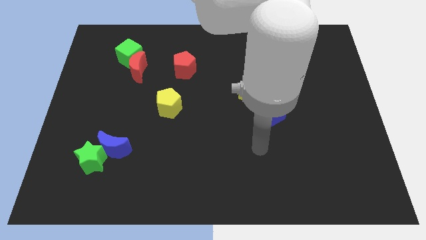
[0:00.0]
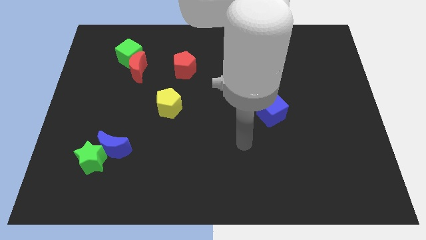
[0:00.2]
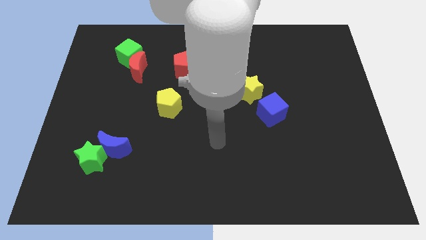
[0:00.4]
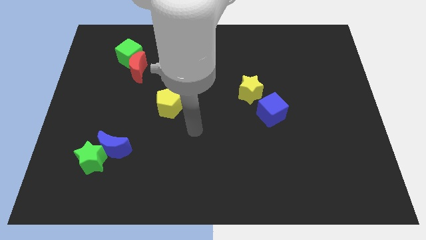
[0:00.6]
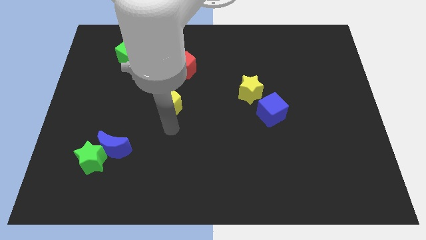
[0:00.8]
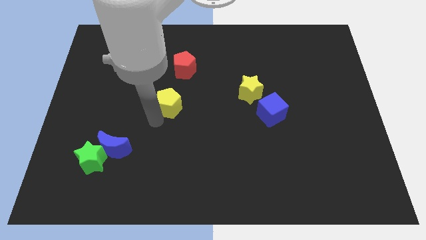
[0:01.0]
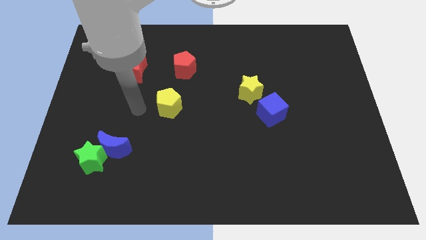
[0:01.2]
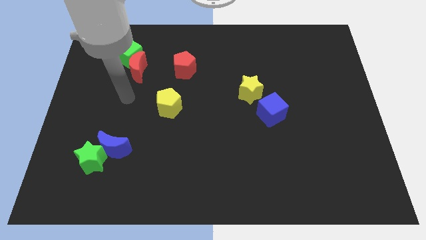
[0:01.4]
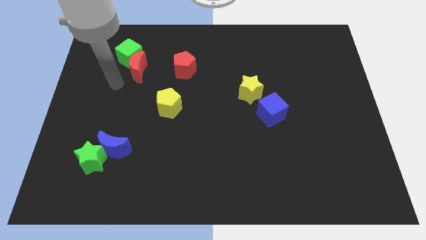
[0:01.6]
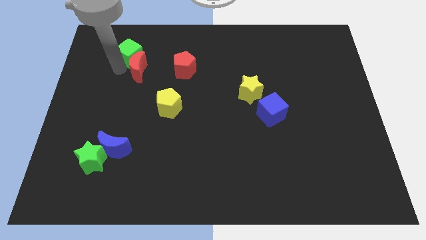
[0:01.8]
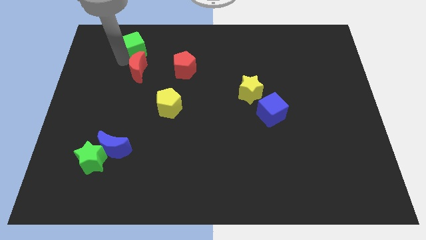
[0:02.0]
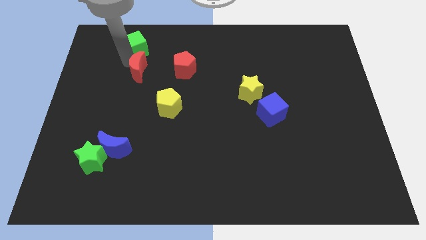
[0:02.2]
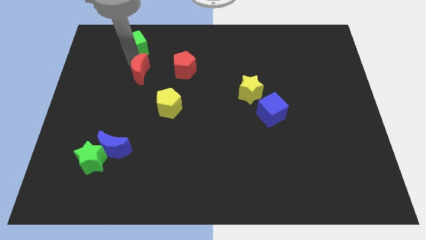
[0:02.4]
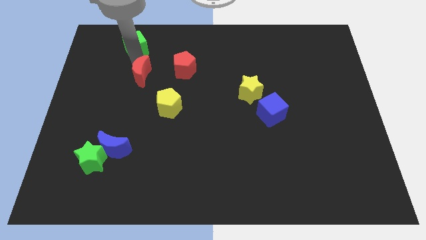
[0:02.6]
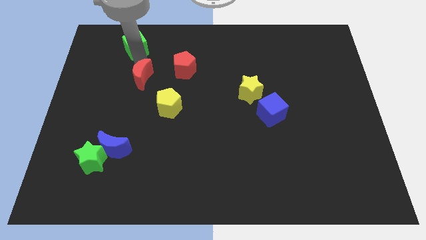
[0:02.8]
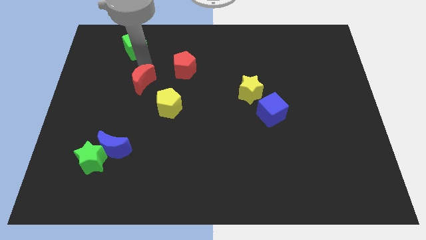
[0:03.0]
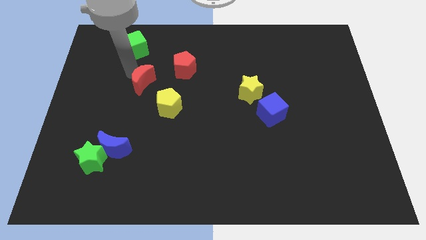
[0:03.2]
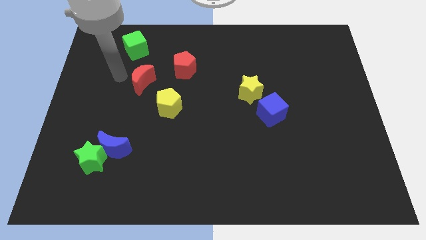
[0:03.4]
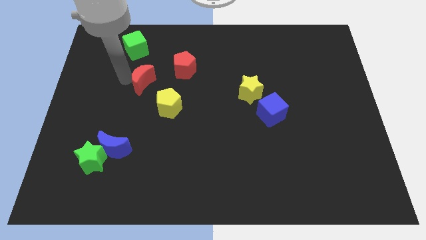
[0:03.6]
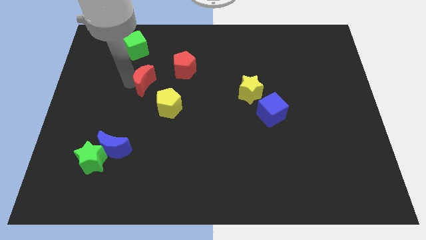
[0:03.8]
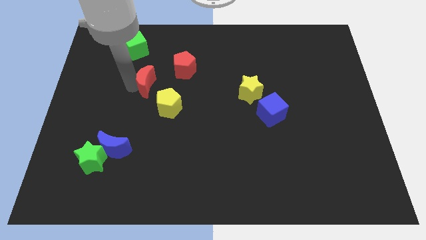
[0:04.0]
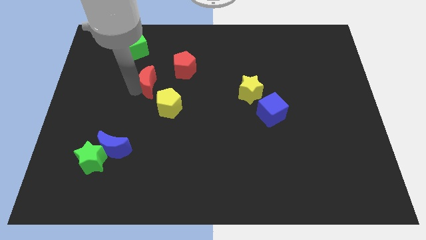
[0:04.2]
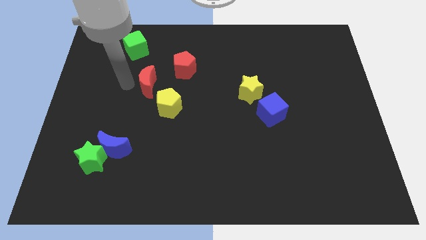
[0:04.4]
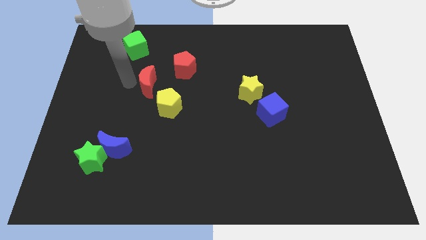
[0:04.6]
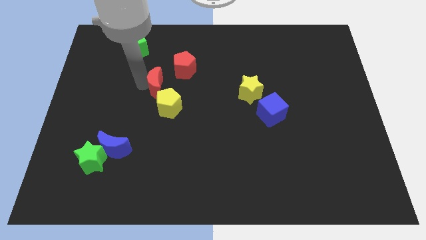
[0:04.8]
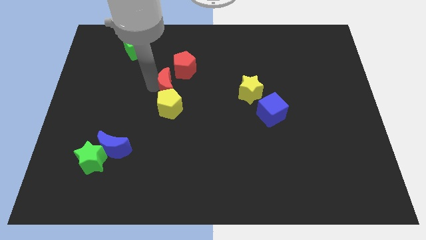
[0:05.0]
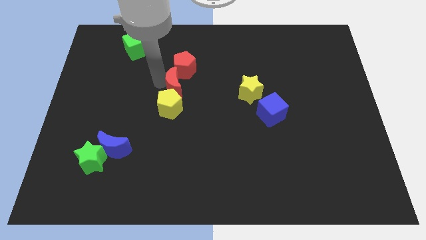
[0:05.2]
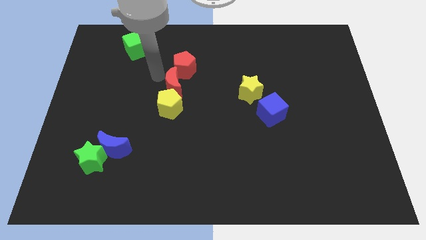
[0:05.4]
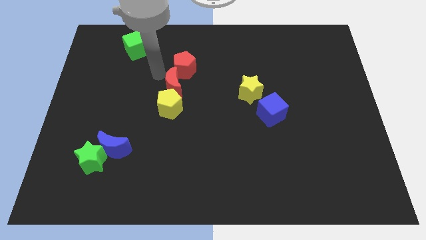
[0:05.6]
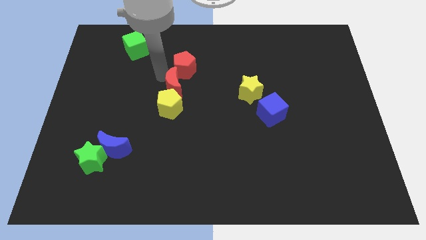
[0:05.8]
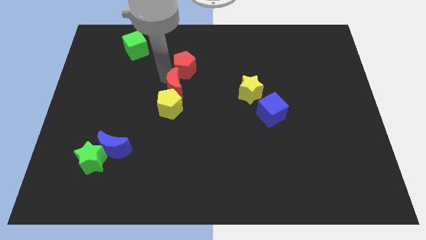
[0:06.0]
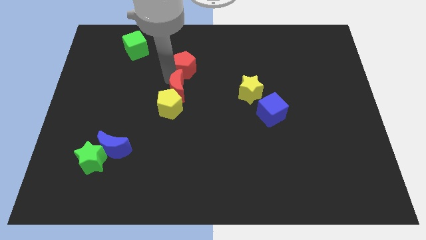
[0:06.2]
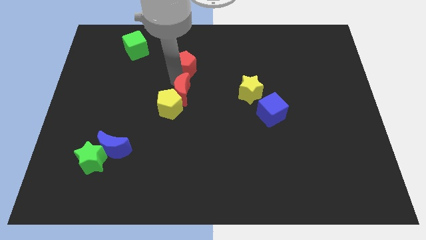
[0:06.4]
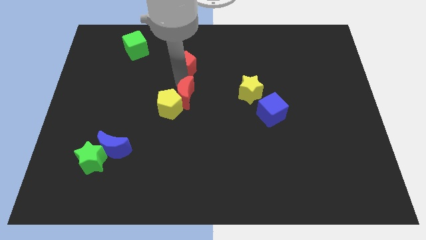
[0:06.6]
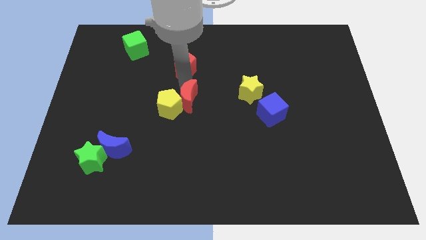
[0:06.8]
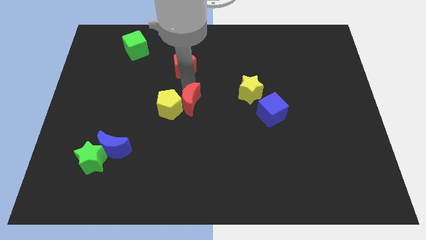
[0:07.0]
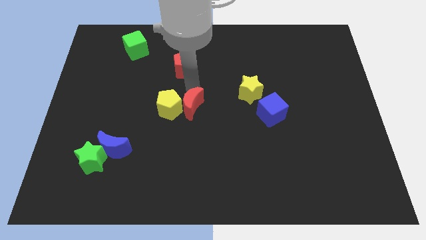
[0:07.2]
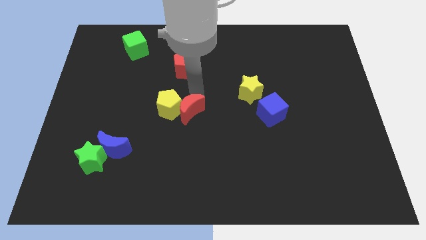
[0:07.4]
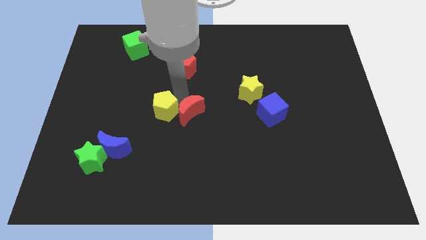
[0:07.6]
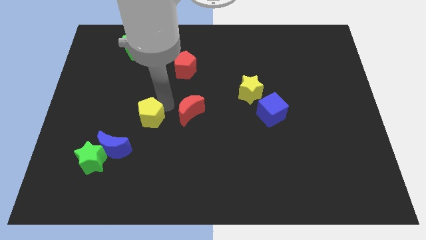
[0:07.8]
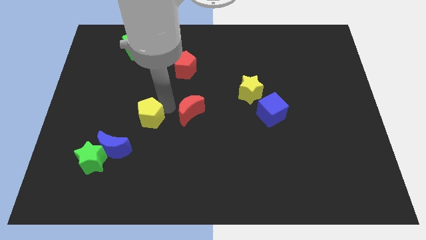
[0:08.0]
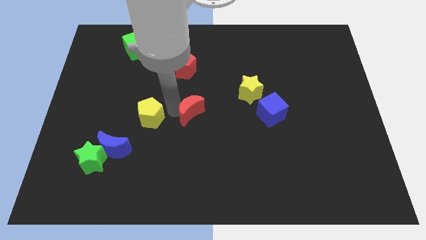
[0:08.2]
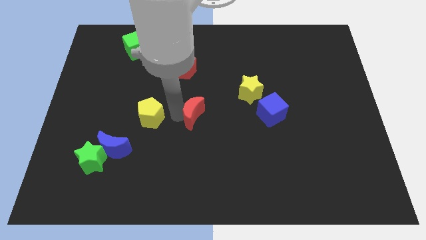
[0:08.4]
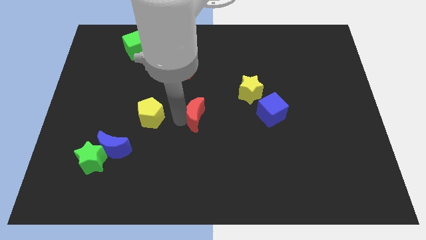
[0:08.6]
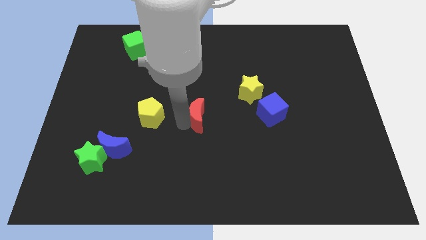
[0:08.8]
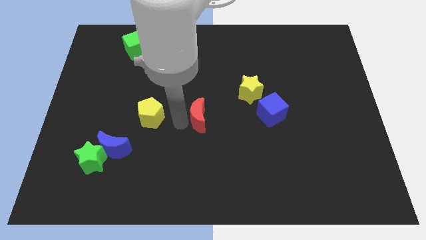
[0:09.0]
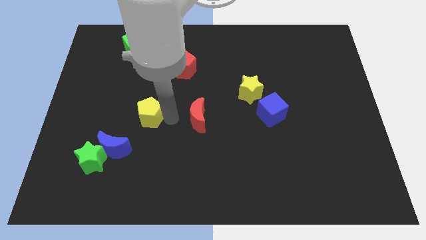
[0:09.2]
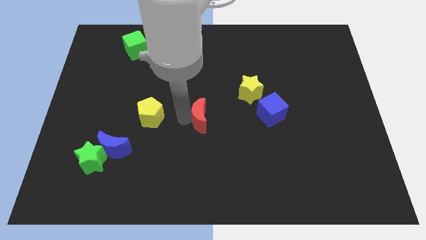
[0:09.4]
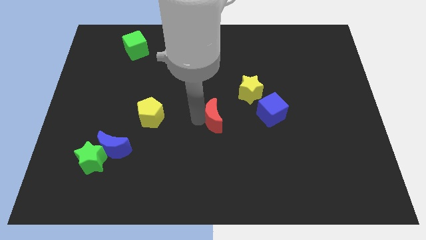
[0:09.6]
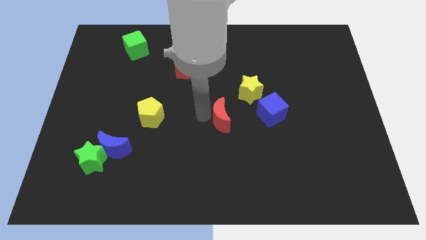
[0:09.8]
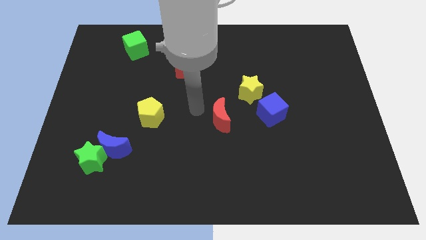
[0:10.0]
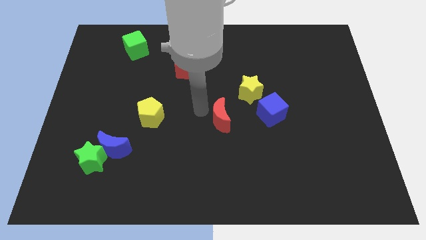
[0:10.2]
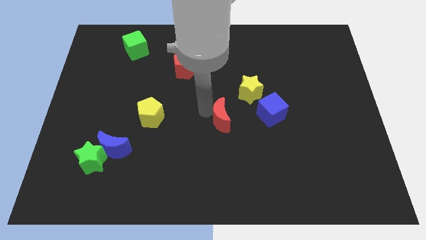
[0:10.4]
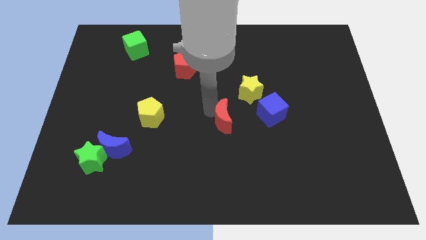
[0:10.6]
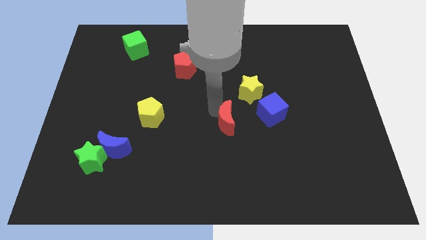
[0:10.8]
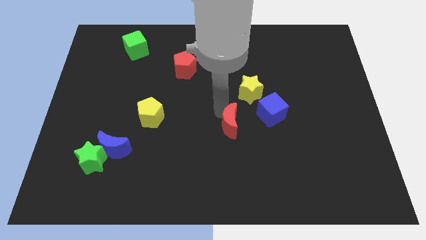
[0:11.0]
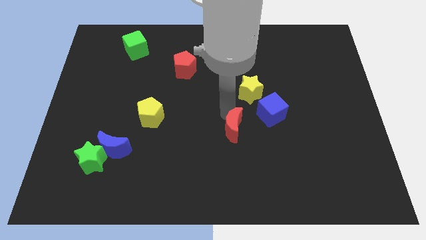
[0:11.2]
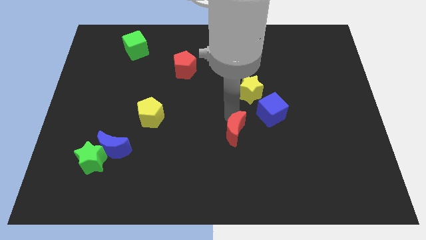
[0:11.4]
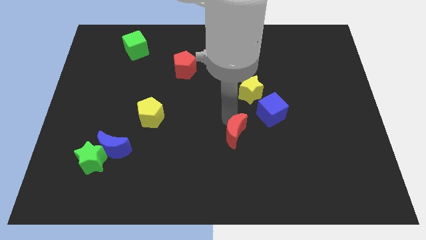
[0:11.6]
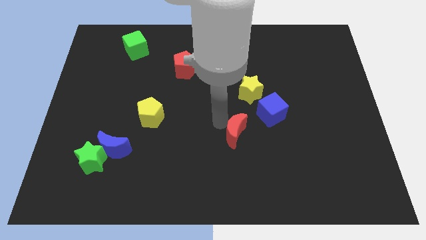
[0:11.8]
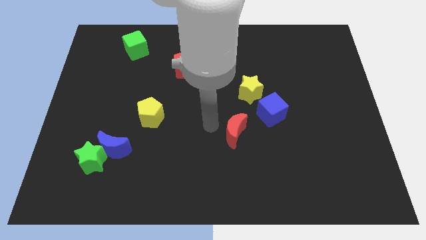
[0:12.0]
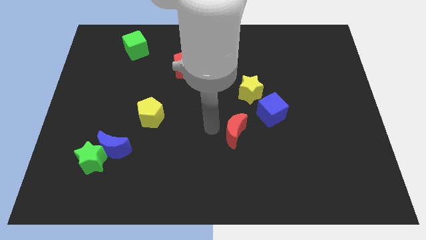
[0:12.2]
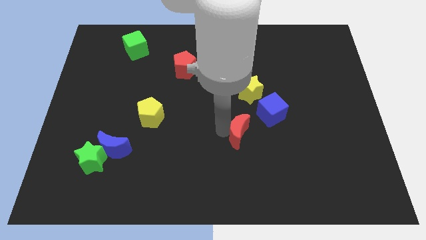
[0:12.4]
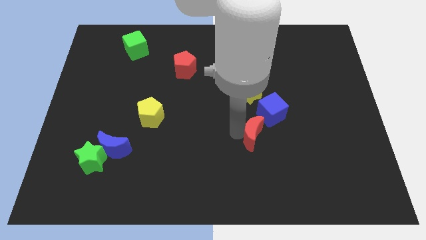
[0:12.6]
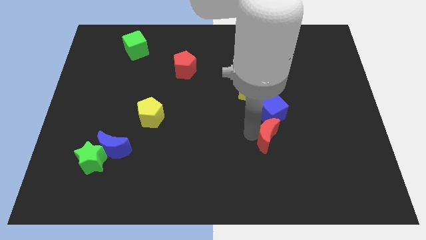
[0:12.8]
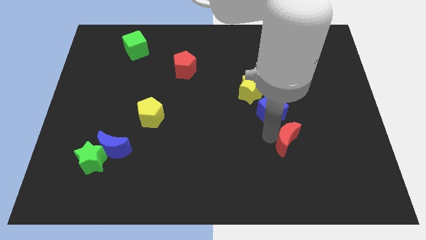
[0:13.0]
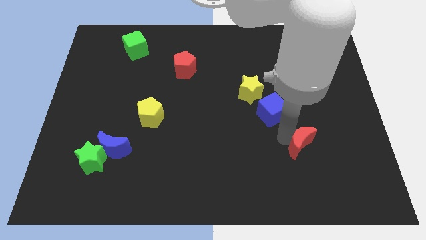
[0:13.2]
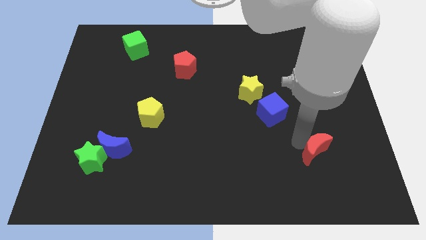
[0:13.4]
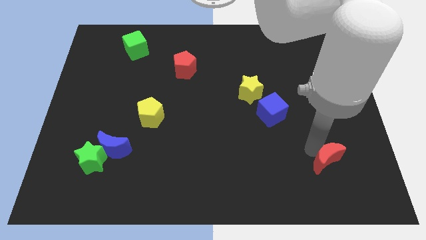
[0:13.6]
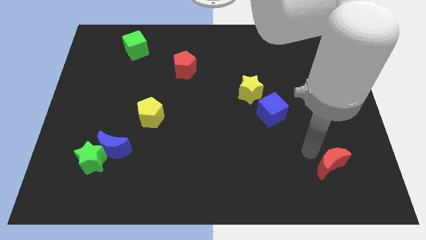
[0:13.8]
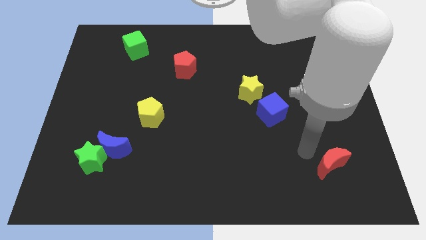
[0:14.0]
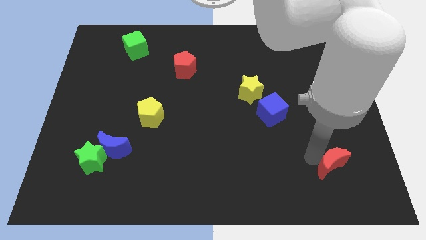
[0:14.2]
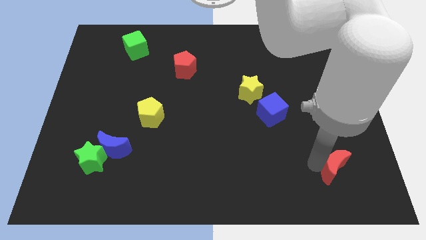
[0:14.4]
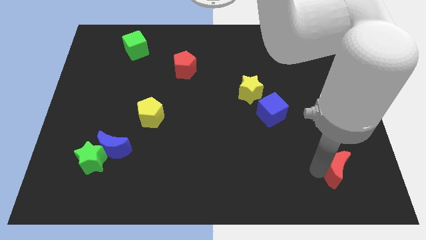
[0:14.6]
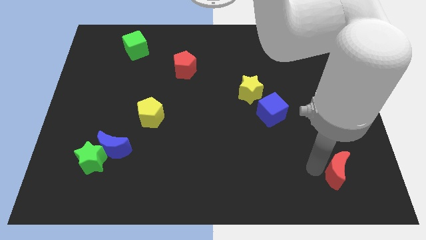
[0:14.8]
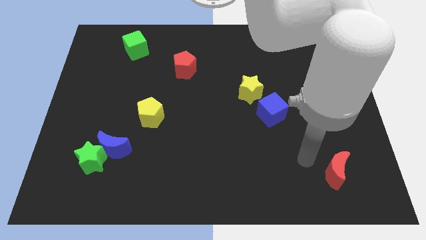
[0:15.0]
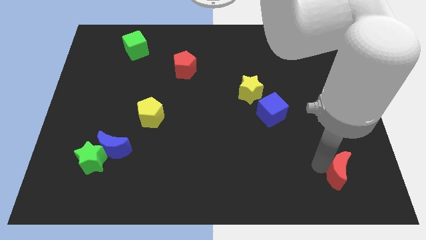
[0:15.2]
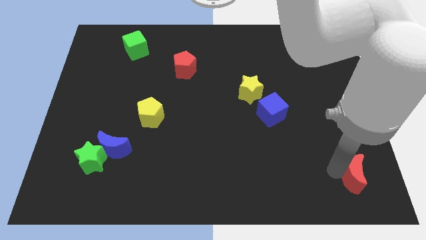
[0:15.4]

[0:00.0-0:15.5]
slide the red moon to the bottom right
